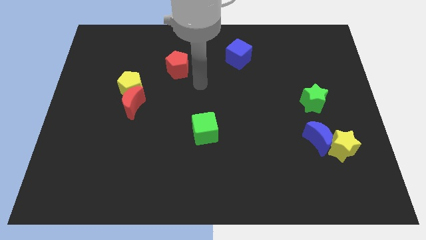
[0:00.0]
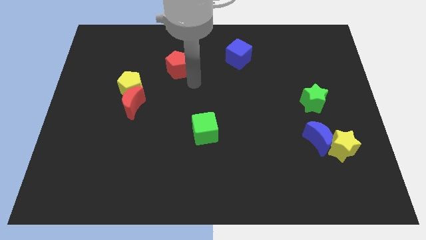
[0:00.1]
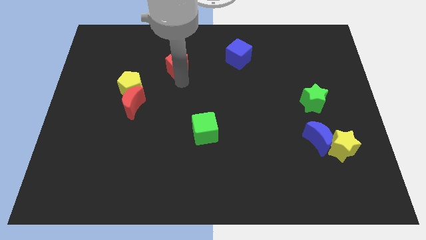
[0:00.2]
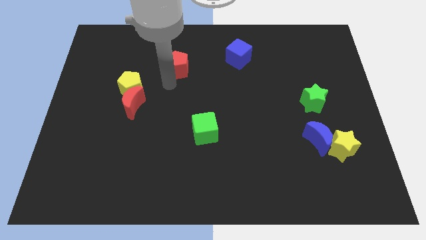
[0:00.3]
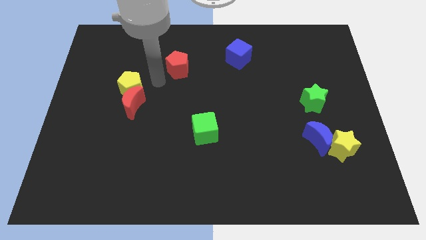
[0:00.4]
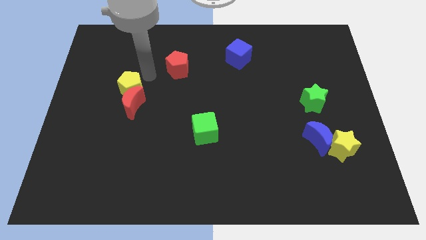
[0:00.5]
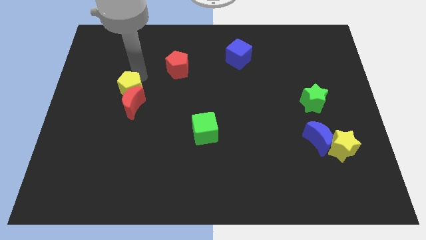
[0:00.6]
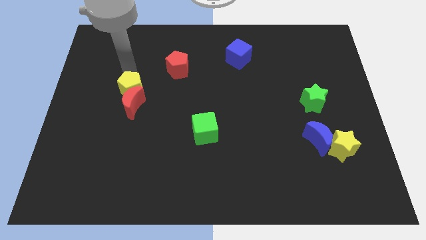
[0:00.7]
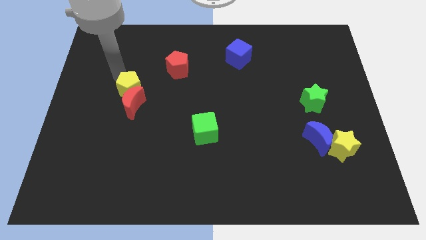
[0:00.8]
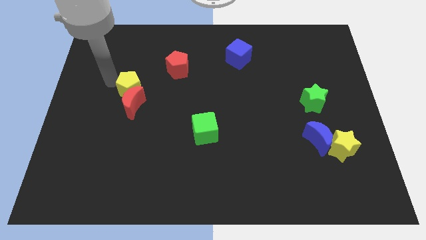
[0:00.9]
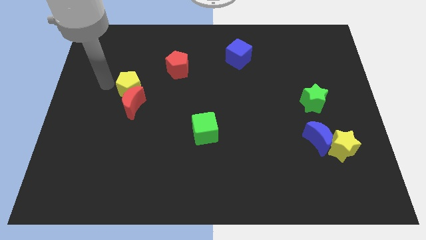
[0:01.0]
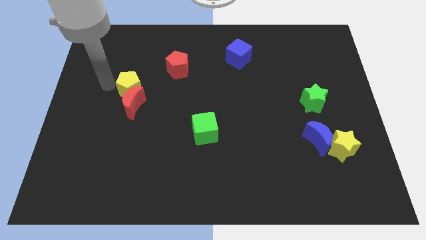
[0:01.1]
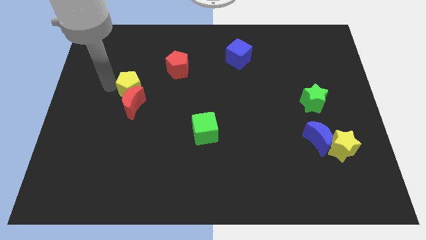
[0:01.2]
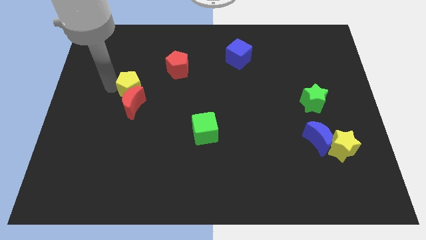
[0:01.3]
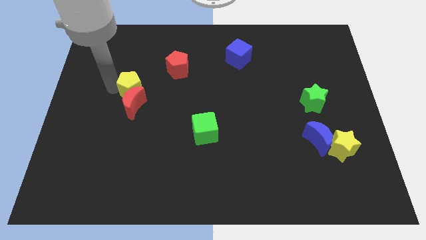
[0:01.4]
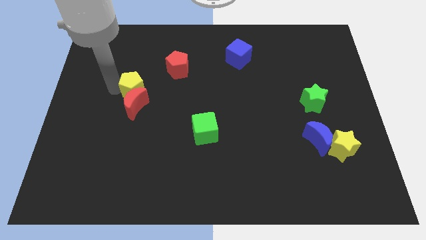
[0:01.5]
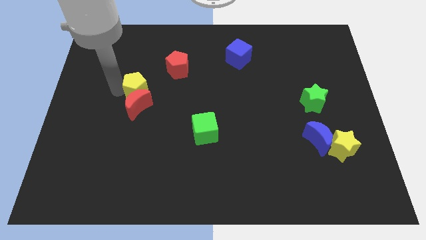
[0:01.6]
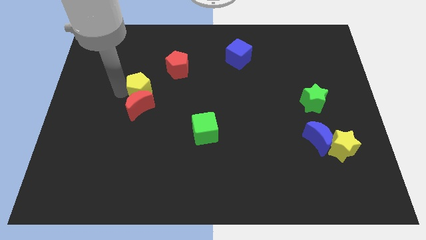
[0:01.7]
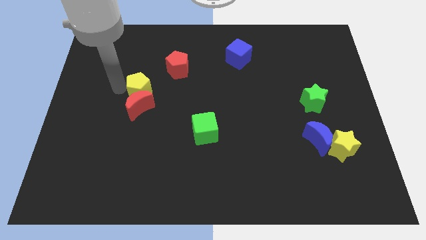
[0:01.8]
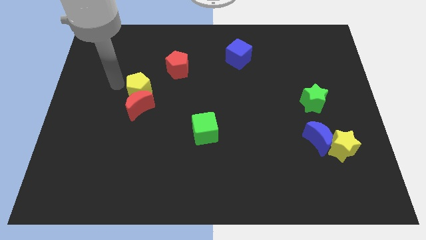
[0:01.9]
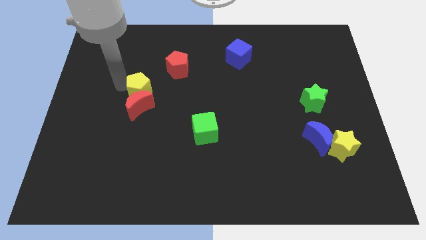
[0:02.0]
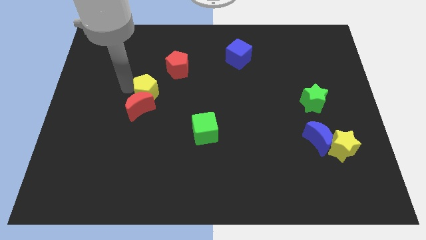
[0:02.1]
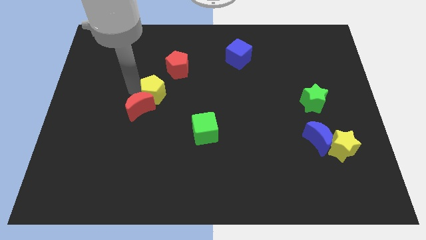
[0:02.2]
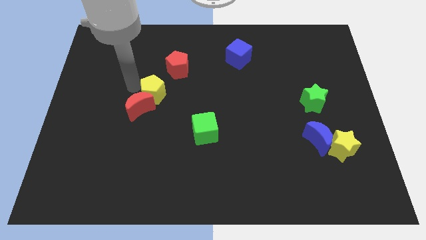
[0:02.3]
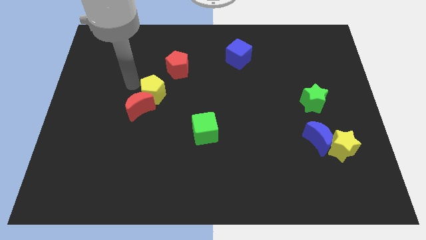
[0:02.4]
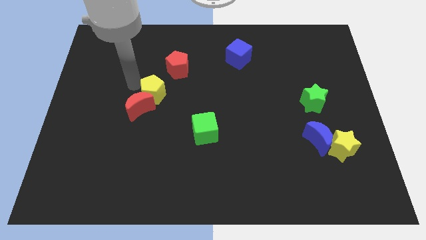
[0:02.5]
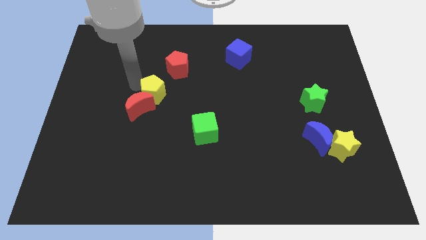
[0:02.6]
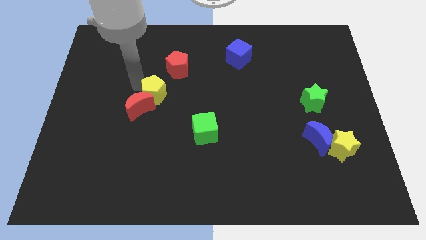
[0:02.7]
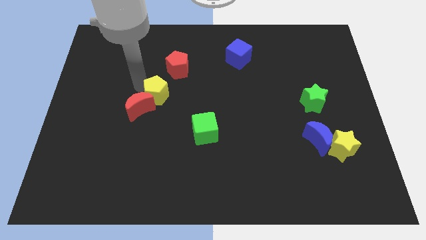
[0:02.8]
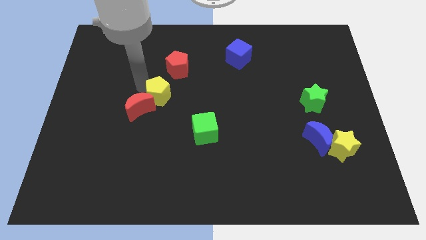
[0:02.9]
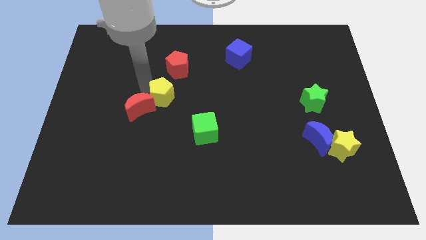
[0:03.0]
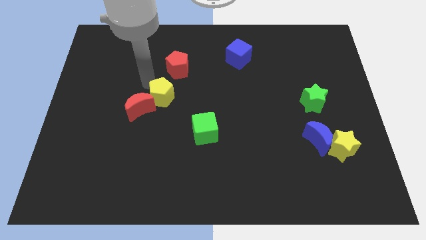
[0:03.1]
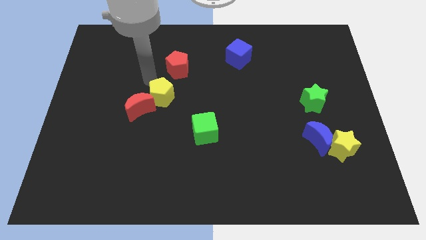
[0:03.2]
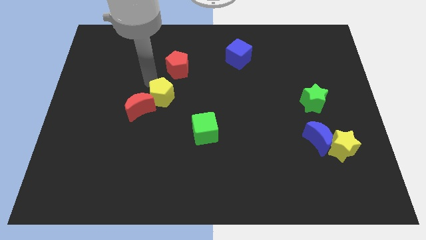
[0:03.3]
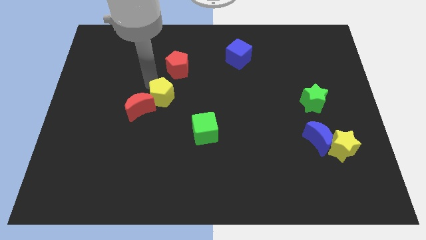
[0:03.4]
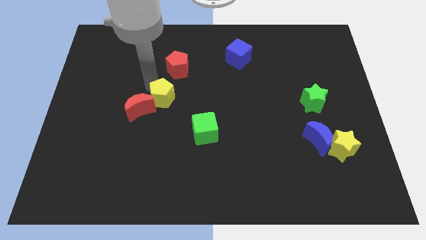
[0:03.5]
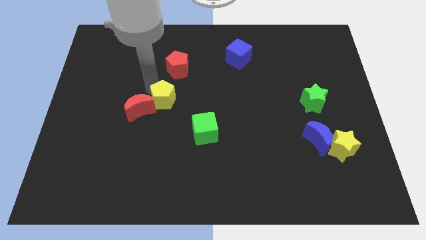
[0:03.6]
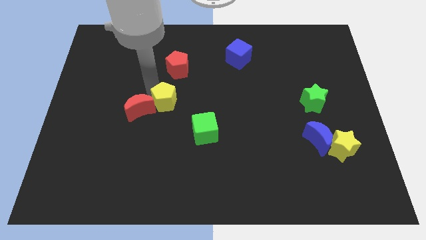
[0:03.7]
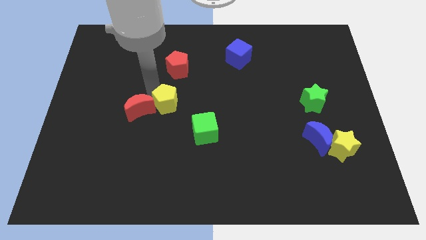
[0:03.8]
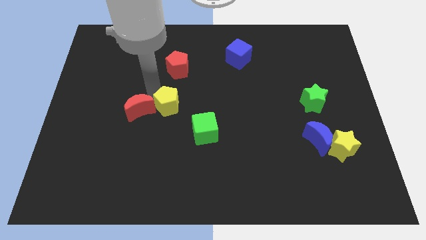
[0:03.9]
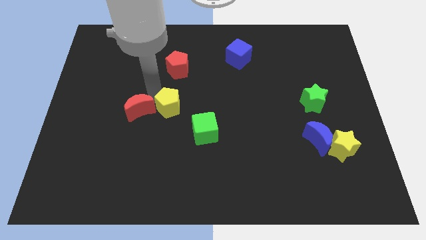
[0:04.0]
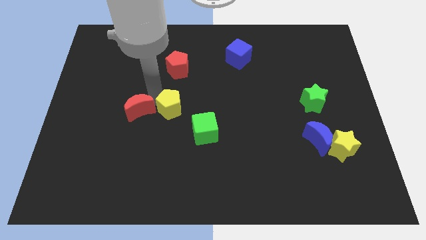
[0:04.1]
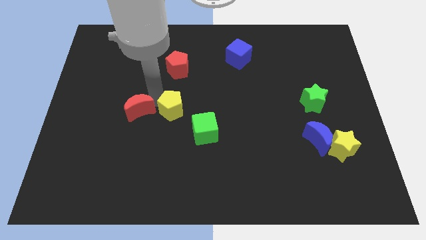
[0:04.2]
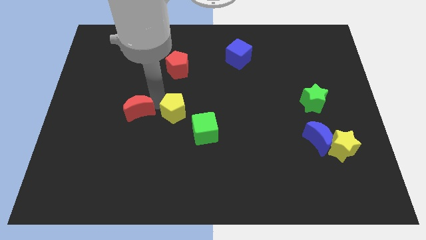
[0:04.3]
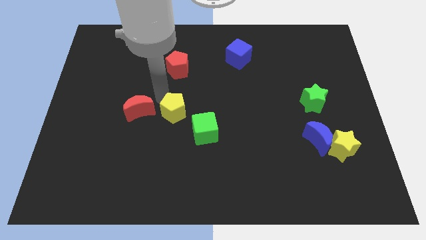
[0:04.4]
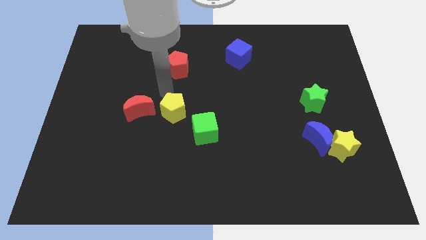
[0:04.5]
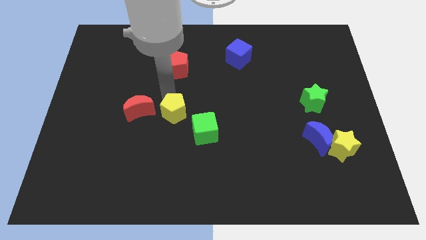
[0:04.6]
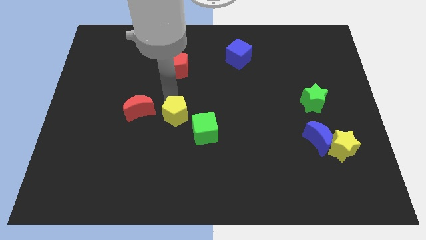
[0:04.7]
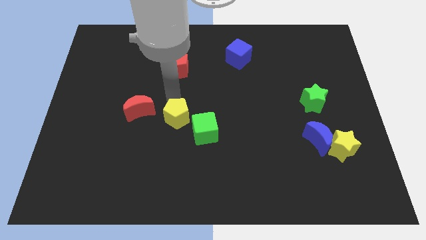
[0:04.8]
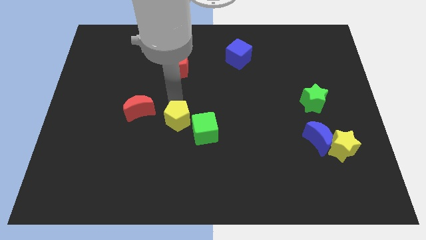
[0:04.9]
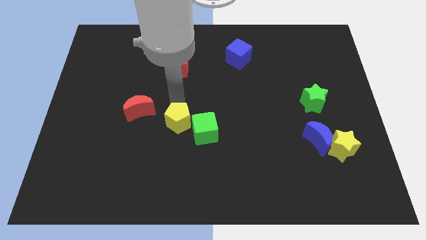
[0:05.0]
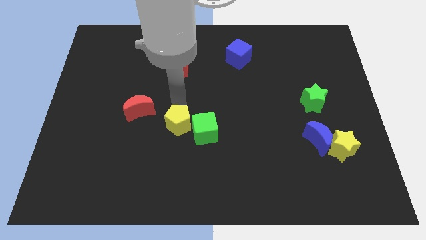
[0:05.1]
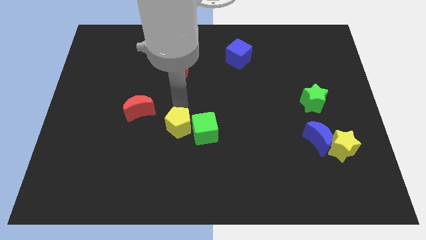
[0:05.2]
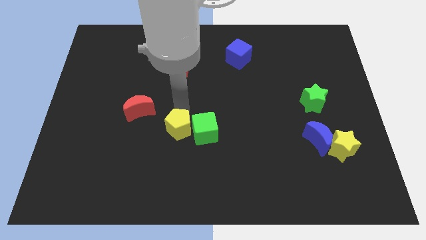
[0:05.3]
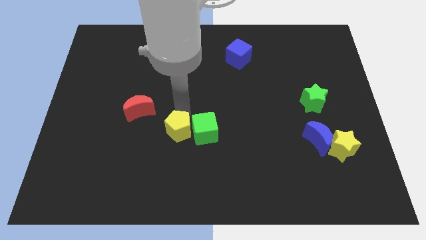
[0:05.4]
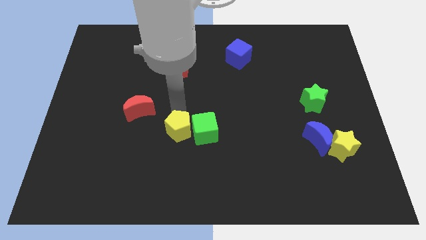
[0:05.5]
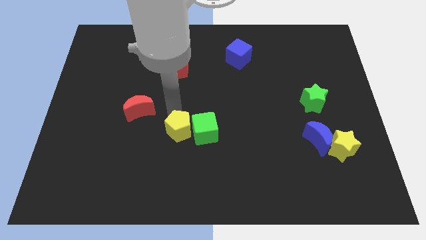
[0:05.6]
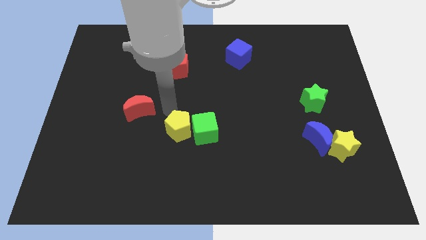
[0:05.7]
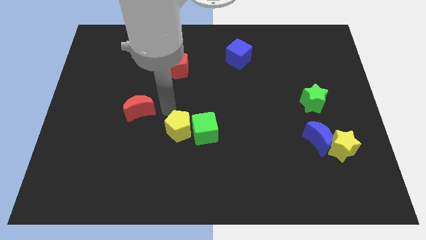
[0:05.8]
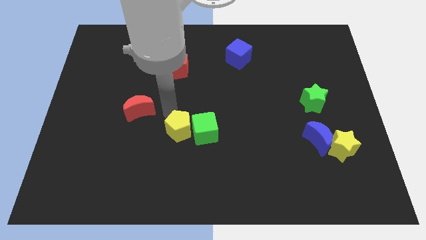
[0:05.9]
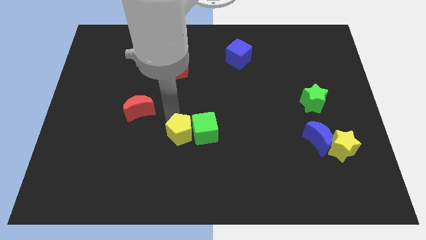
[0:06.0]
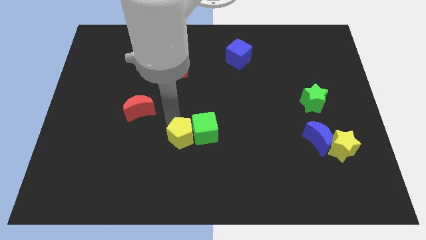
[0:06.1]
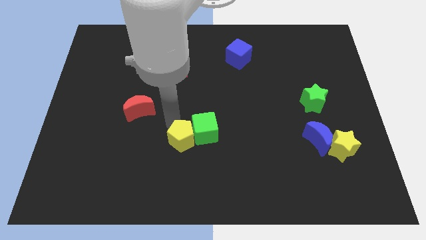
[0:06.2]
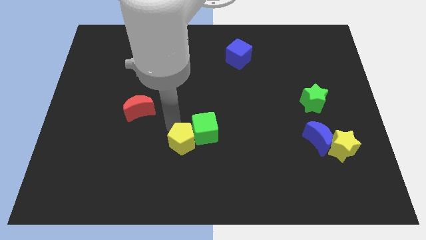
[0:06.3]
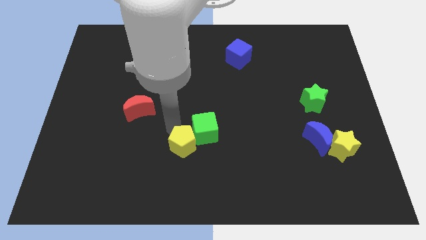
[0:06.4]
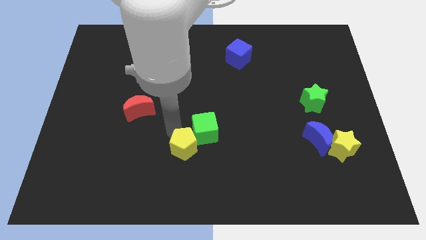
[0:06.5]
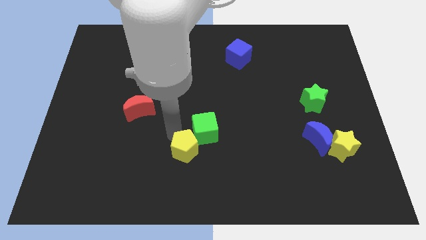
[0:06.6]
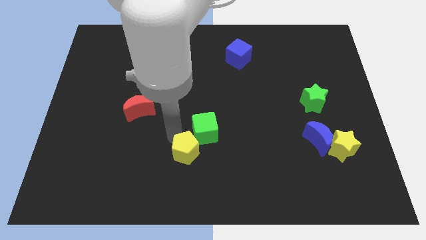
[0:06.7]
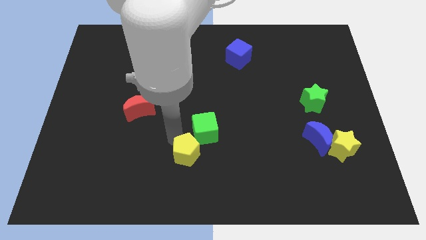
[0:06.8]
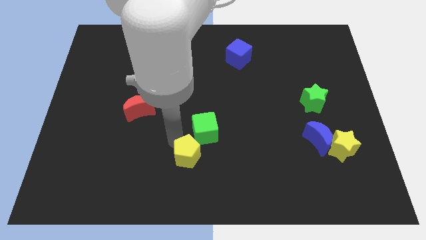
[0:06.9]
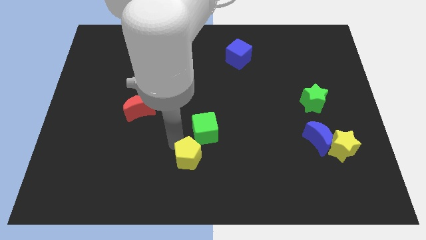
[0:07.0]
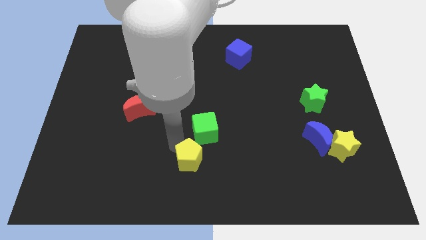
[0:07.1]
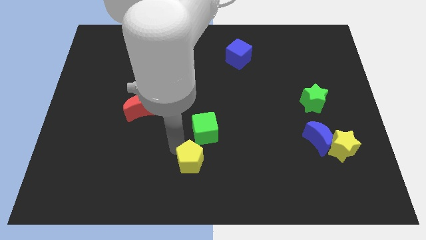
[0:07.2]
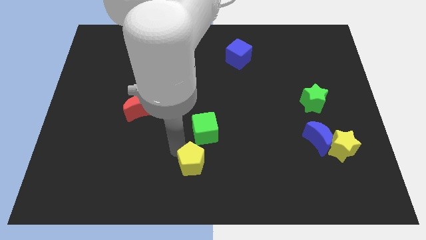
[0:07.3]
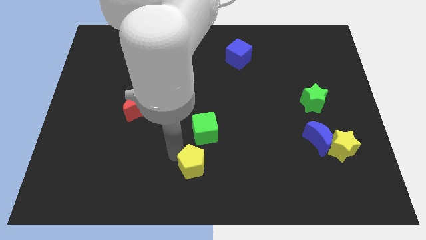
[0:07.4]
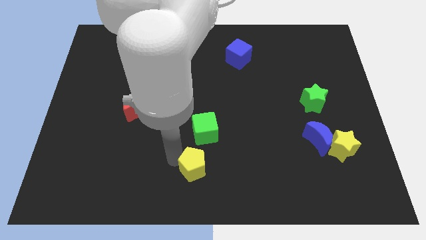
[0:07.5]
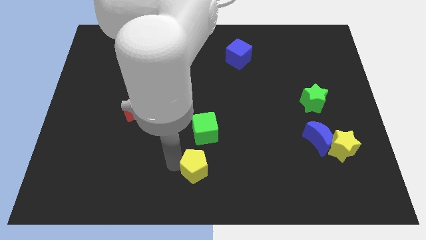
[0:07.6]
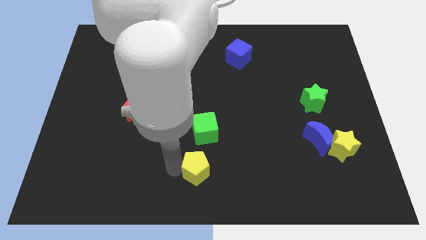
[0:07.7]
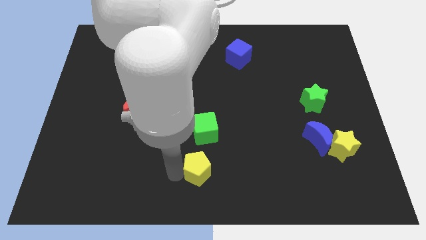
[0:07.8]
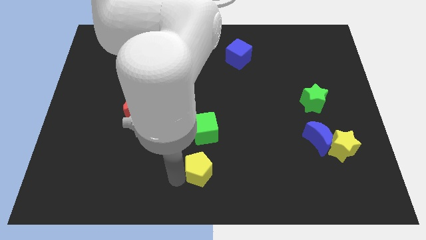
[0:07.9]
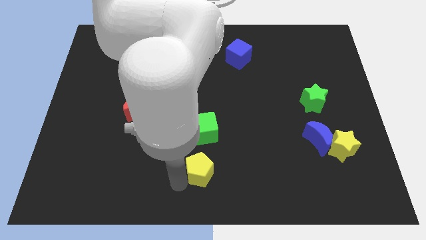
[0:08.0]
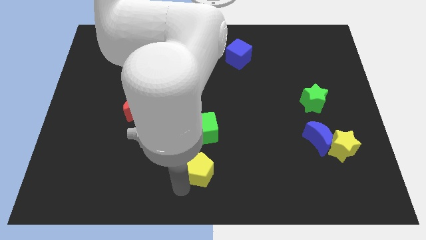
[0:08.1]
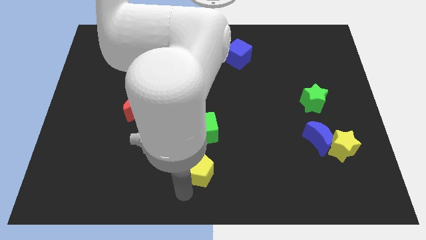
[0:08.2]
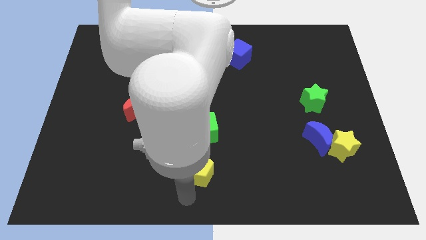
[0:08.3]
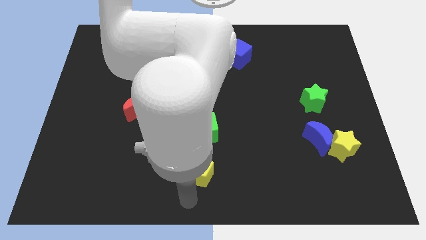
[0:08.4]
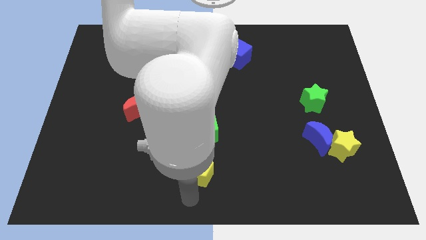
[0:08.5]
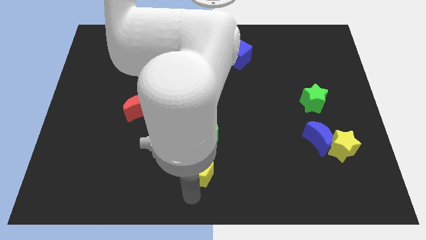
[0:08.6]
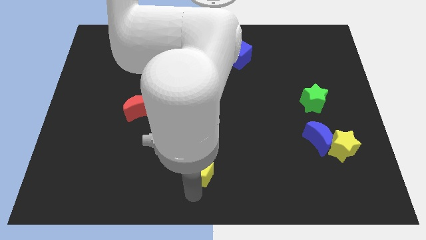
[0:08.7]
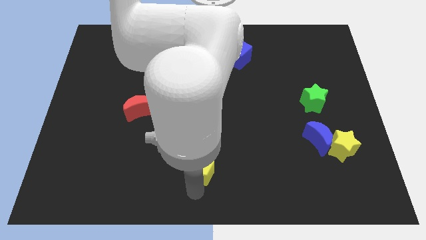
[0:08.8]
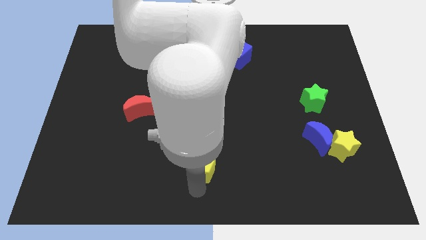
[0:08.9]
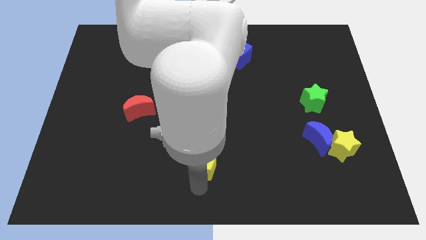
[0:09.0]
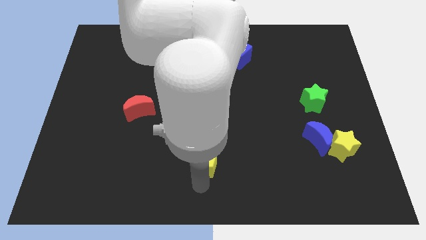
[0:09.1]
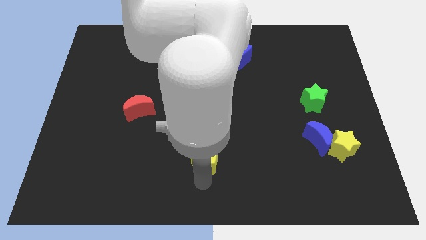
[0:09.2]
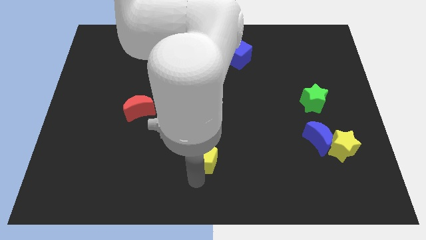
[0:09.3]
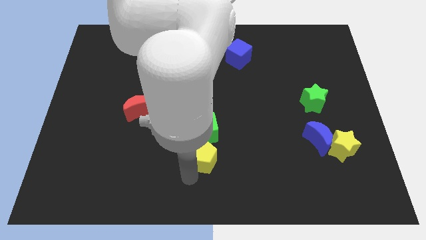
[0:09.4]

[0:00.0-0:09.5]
move the yellow pentagon diagonally down and to the right of the green cube
